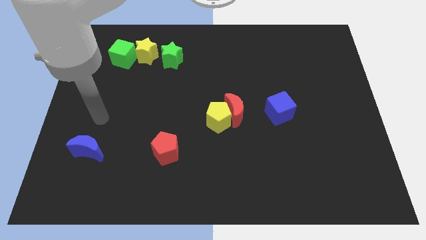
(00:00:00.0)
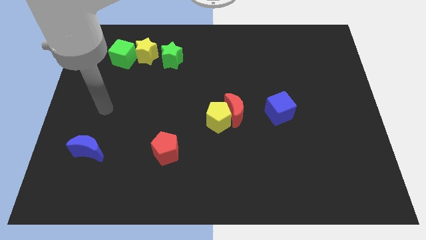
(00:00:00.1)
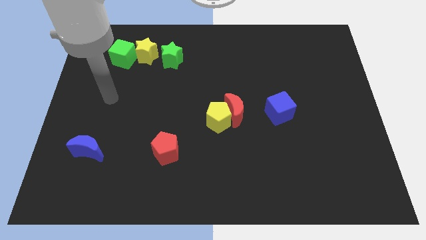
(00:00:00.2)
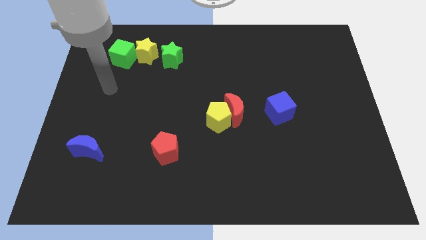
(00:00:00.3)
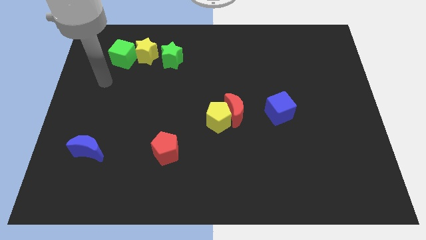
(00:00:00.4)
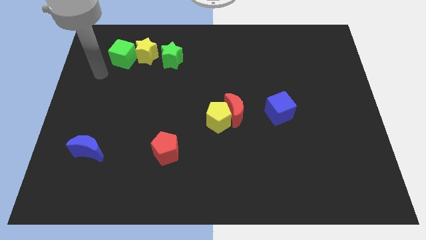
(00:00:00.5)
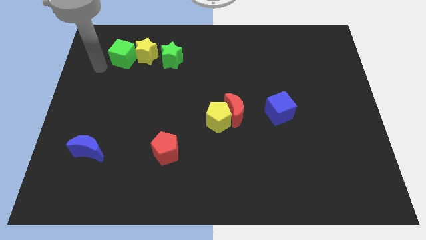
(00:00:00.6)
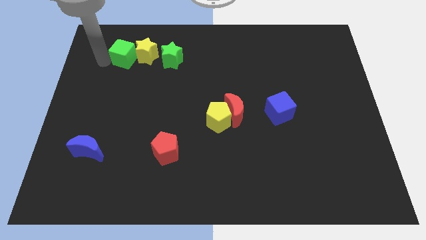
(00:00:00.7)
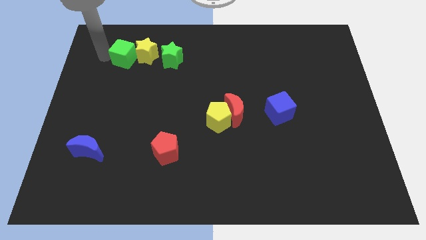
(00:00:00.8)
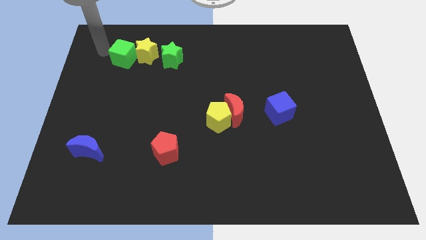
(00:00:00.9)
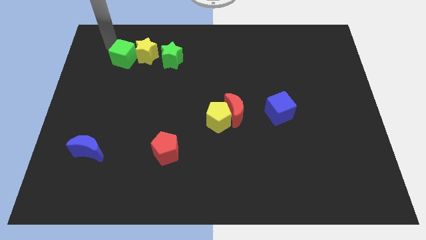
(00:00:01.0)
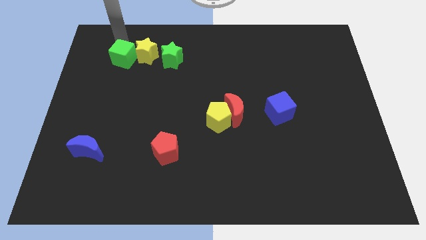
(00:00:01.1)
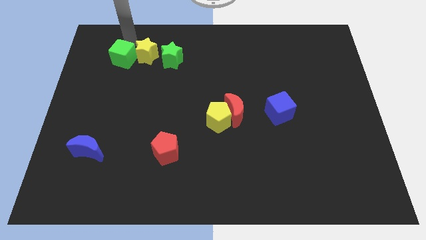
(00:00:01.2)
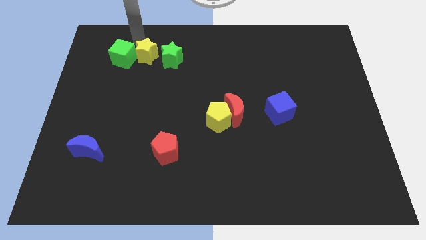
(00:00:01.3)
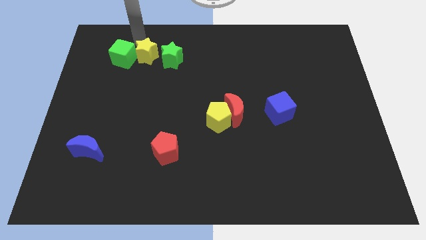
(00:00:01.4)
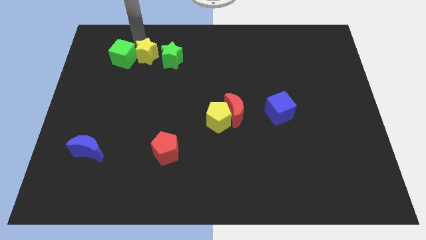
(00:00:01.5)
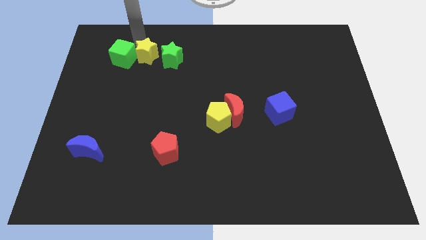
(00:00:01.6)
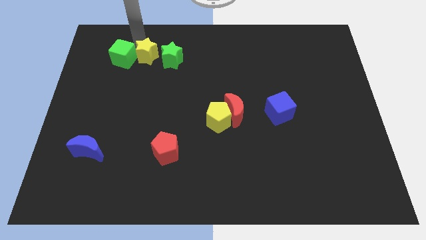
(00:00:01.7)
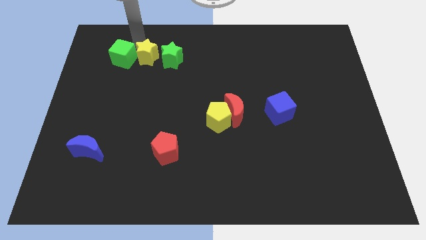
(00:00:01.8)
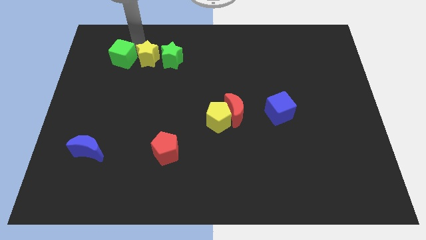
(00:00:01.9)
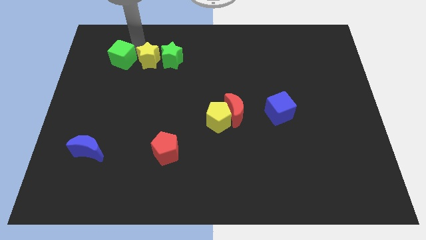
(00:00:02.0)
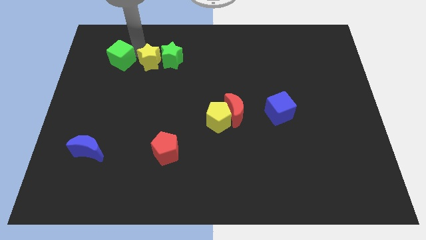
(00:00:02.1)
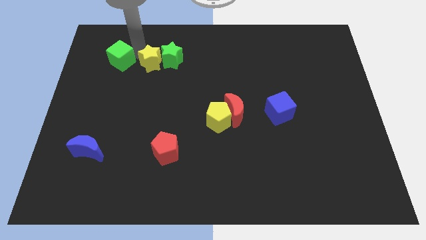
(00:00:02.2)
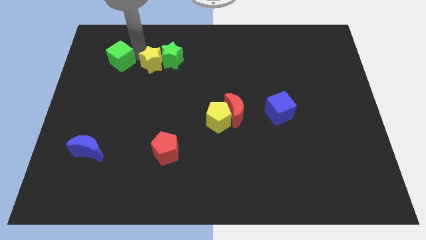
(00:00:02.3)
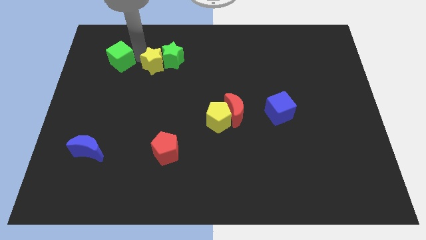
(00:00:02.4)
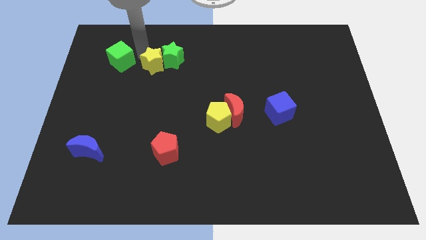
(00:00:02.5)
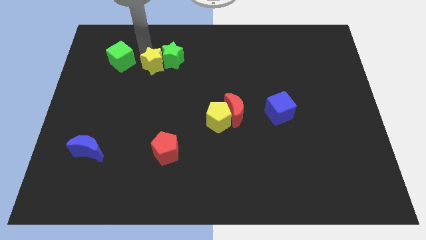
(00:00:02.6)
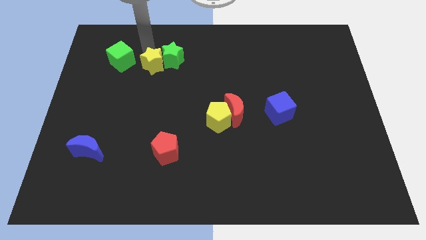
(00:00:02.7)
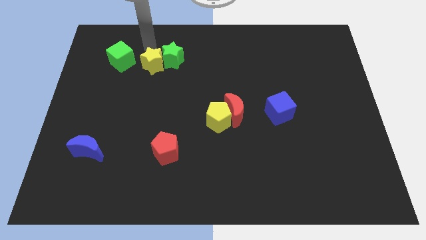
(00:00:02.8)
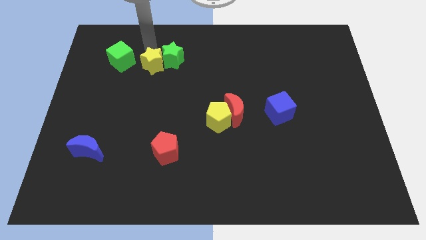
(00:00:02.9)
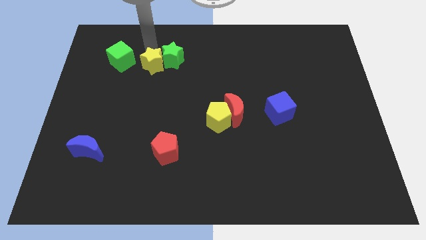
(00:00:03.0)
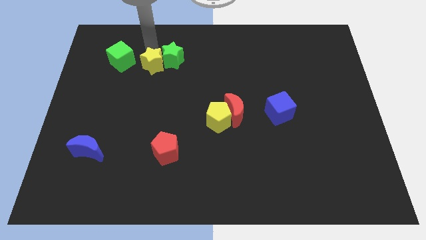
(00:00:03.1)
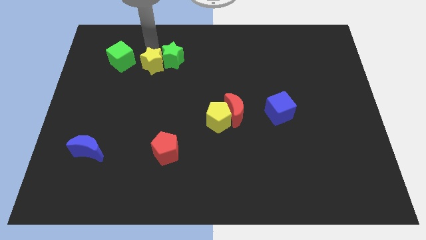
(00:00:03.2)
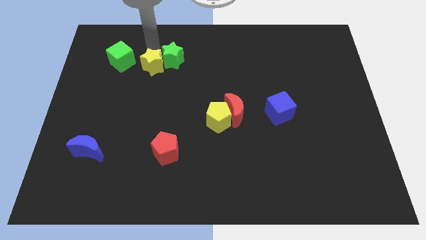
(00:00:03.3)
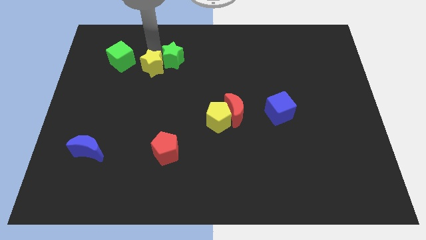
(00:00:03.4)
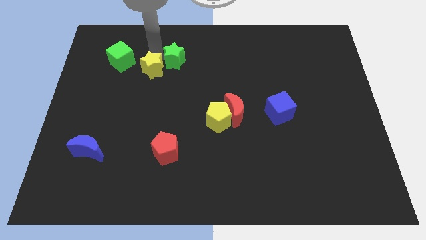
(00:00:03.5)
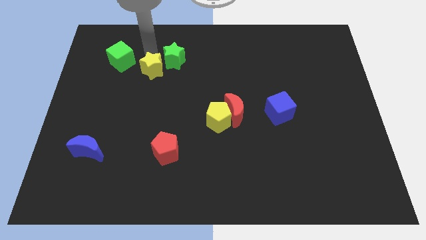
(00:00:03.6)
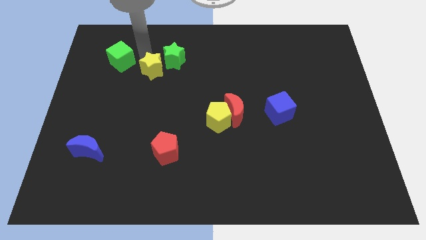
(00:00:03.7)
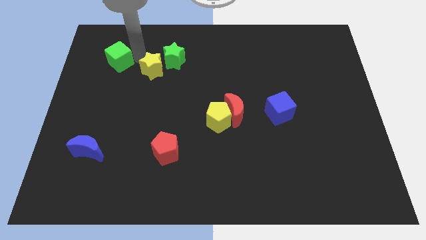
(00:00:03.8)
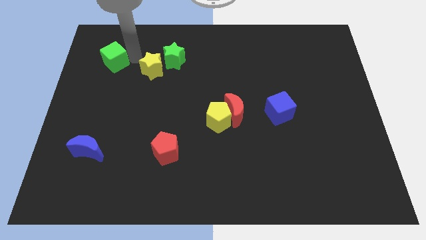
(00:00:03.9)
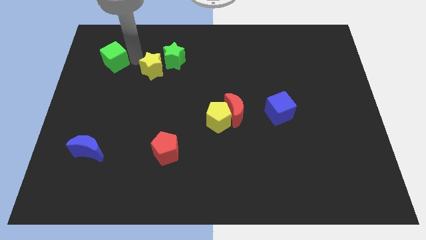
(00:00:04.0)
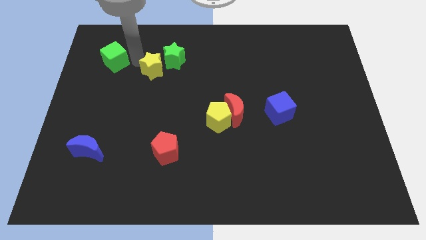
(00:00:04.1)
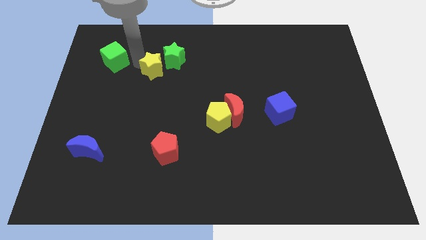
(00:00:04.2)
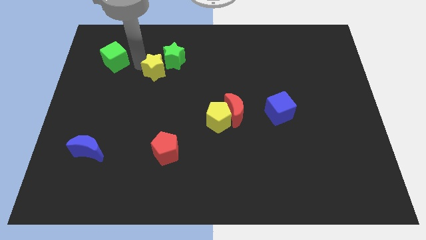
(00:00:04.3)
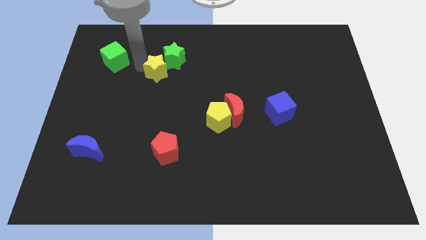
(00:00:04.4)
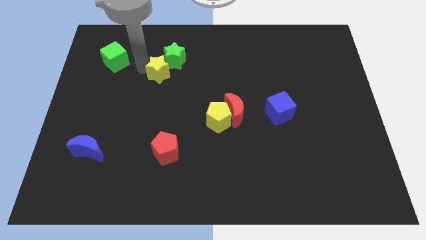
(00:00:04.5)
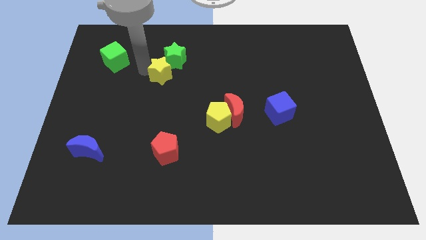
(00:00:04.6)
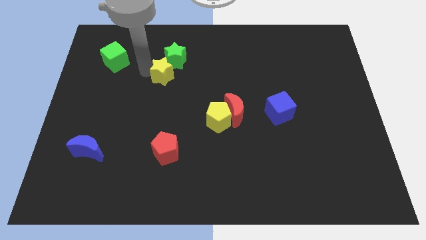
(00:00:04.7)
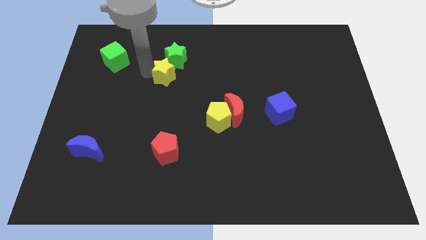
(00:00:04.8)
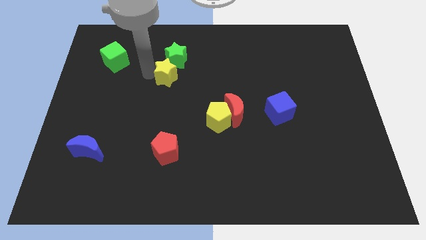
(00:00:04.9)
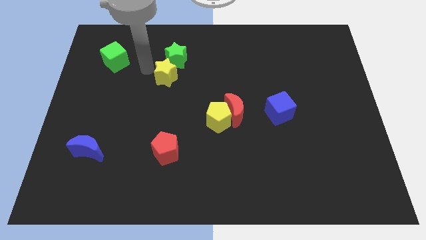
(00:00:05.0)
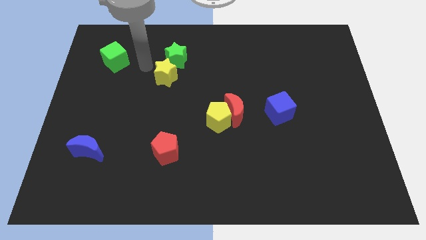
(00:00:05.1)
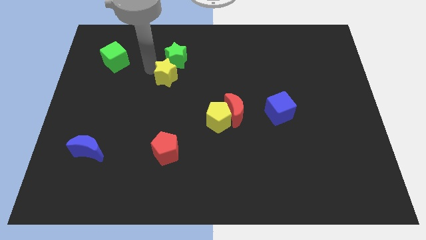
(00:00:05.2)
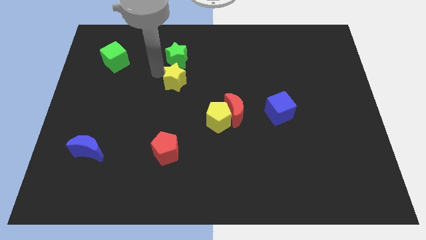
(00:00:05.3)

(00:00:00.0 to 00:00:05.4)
put the yellow star to the center

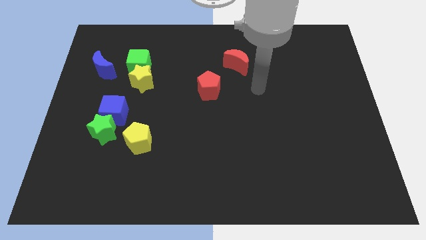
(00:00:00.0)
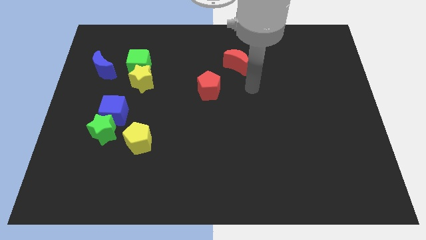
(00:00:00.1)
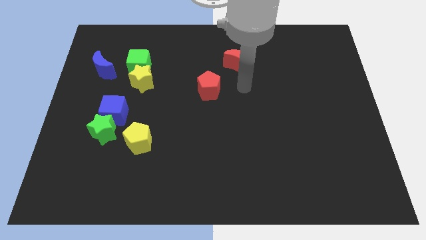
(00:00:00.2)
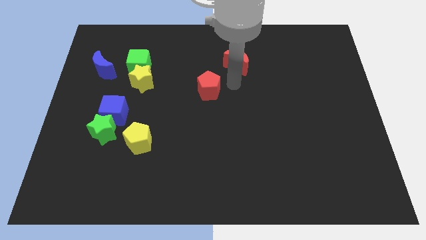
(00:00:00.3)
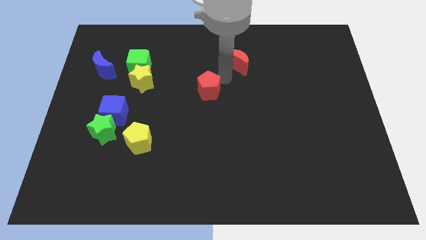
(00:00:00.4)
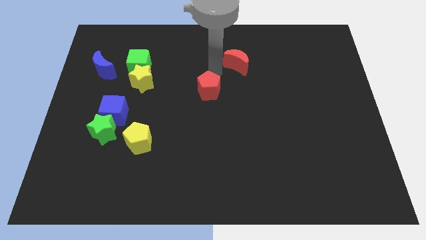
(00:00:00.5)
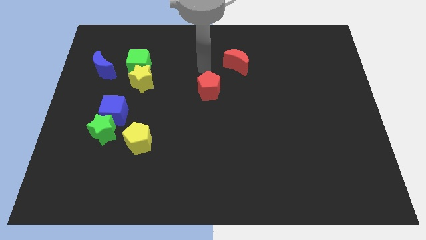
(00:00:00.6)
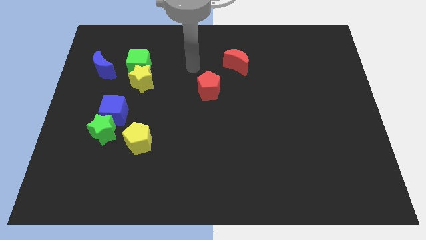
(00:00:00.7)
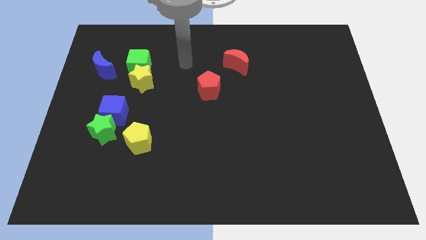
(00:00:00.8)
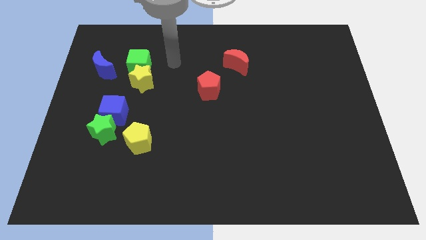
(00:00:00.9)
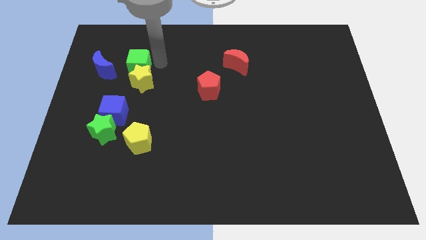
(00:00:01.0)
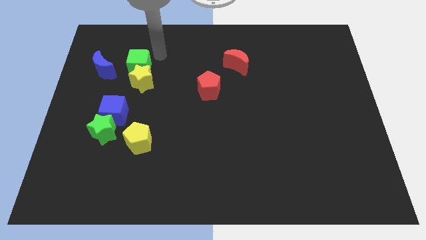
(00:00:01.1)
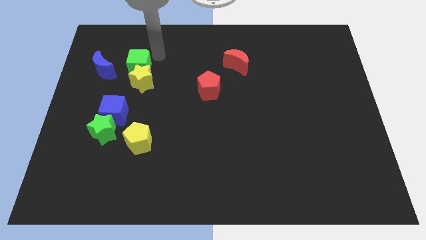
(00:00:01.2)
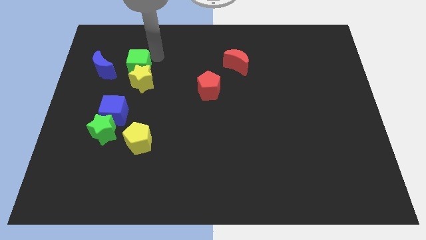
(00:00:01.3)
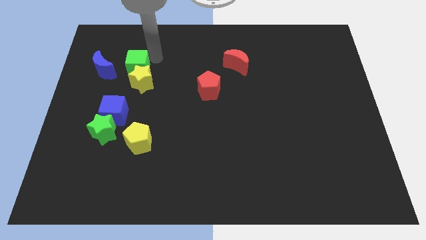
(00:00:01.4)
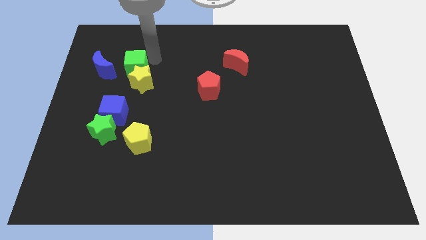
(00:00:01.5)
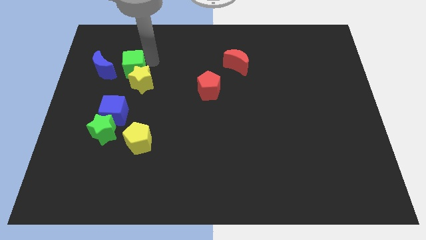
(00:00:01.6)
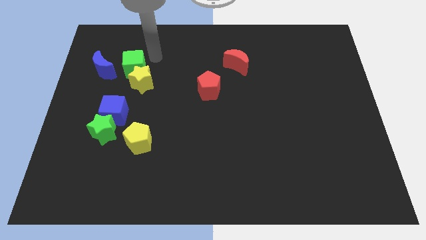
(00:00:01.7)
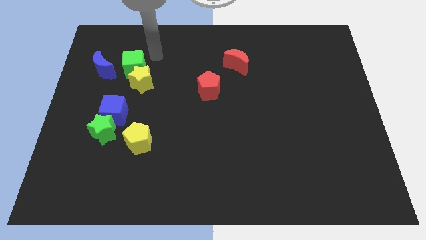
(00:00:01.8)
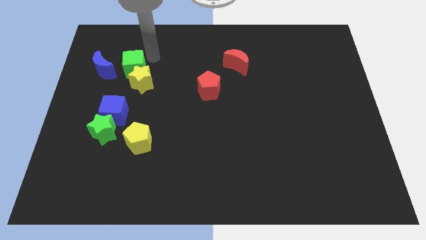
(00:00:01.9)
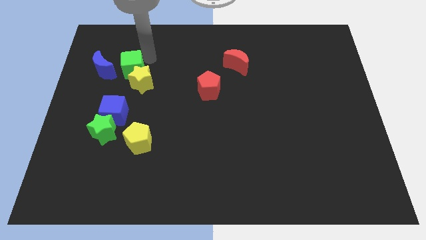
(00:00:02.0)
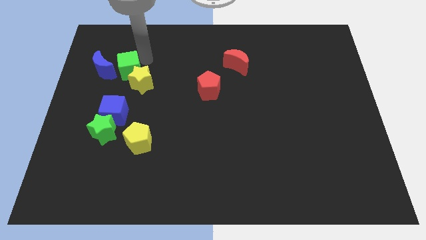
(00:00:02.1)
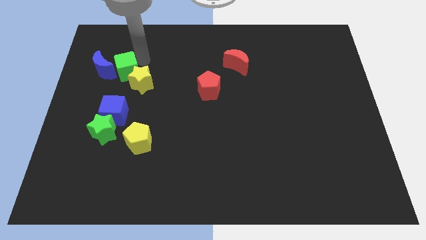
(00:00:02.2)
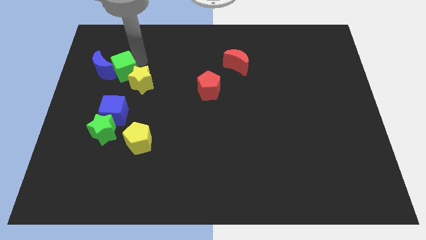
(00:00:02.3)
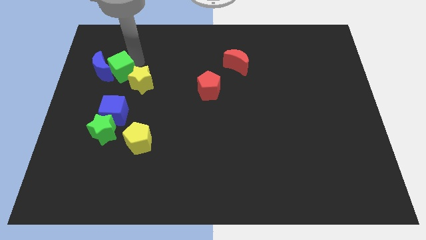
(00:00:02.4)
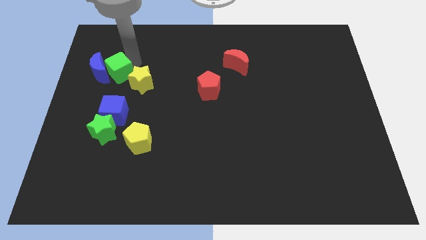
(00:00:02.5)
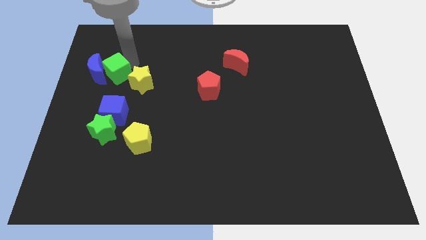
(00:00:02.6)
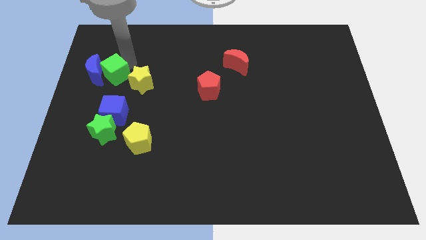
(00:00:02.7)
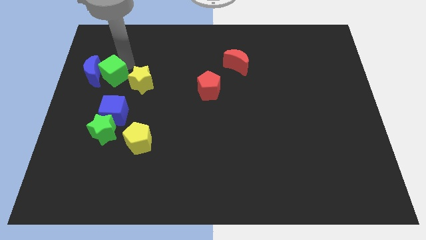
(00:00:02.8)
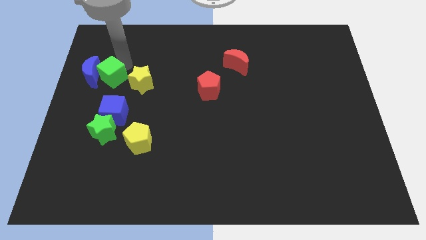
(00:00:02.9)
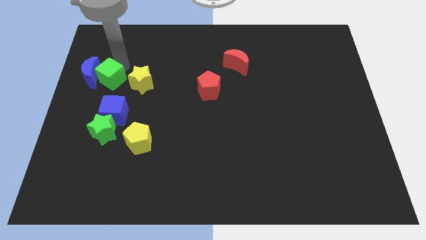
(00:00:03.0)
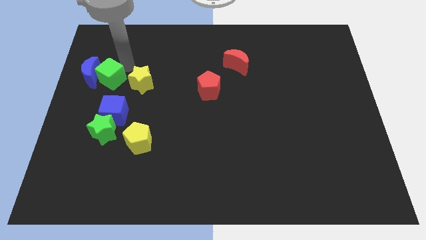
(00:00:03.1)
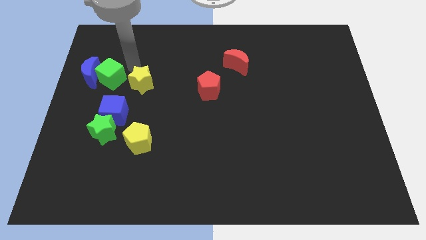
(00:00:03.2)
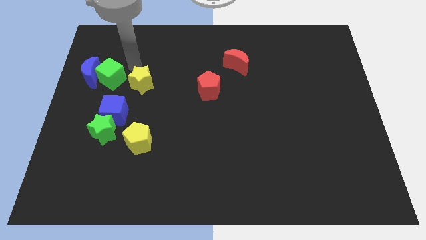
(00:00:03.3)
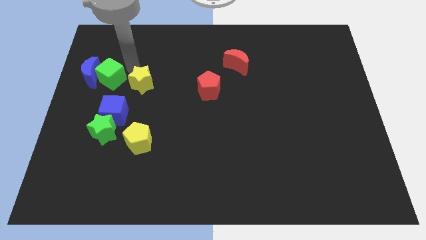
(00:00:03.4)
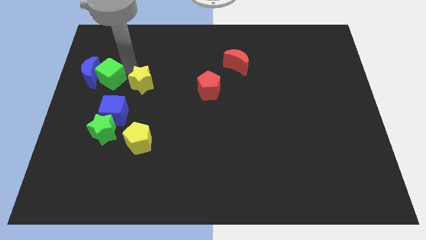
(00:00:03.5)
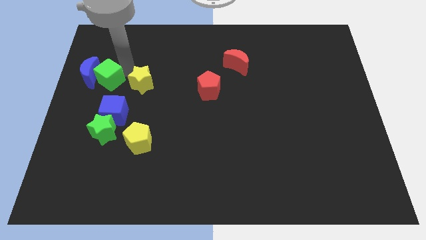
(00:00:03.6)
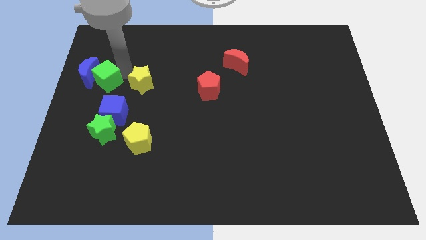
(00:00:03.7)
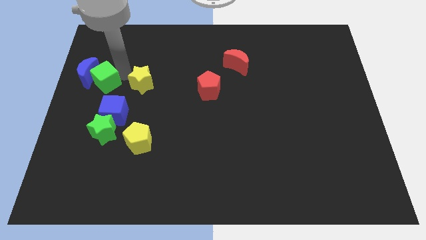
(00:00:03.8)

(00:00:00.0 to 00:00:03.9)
slide the green cube to the left side
